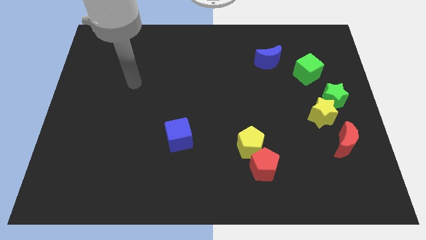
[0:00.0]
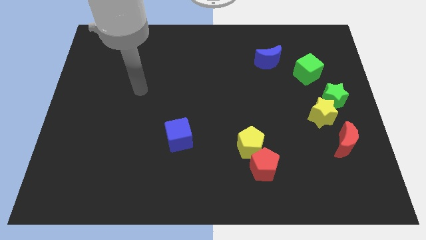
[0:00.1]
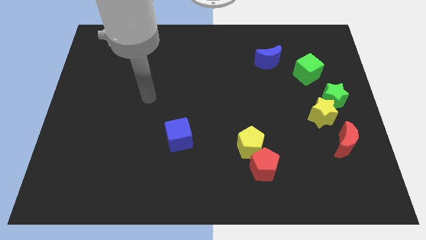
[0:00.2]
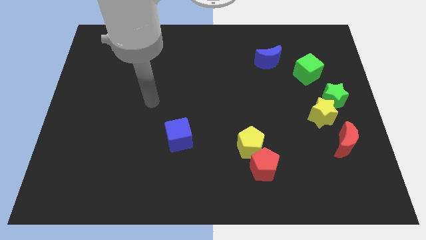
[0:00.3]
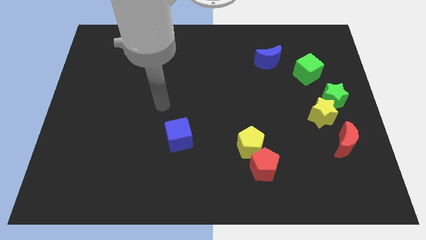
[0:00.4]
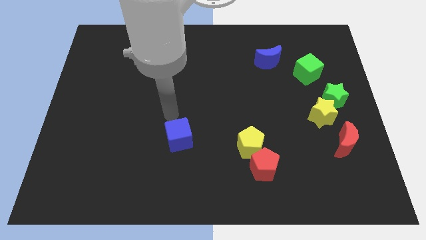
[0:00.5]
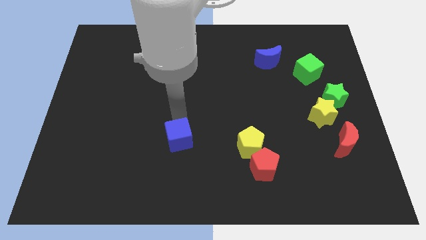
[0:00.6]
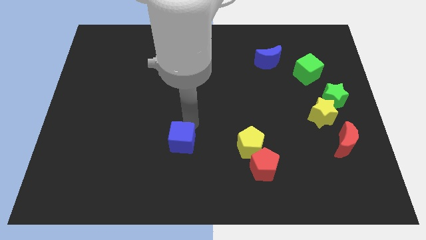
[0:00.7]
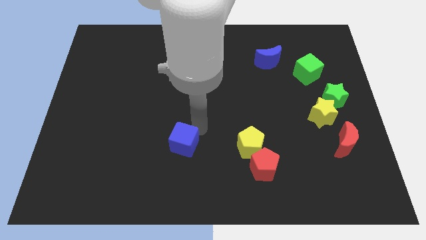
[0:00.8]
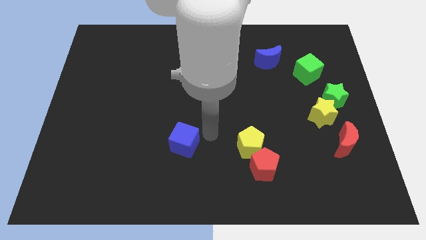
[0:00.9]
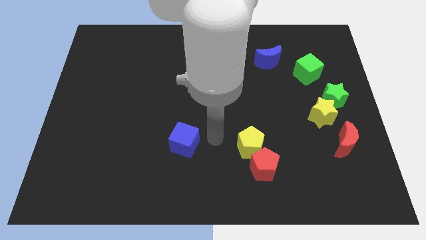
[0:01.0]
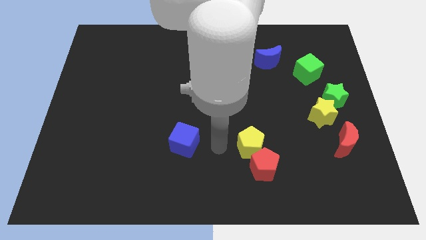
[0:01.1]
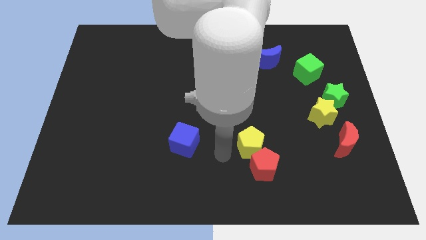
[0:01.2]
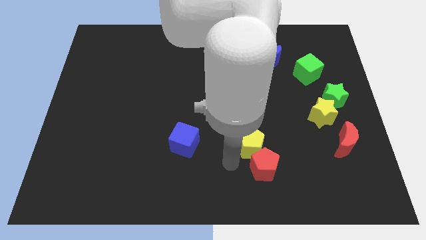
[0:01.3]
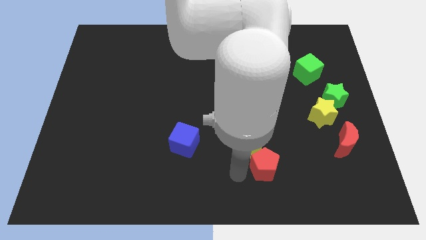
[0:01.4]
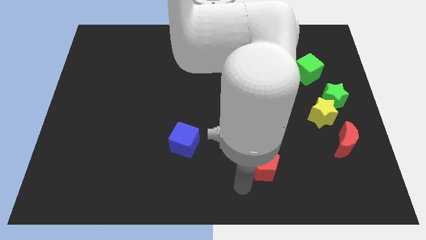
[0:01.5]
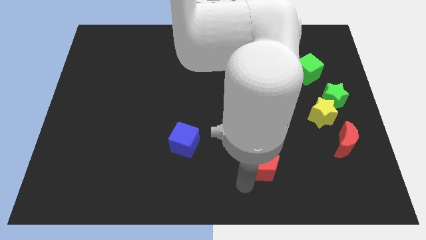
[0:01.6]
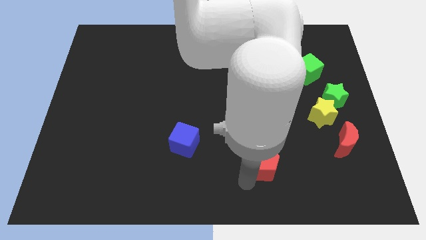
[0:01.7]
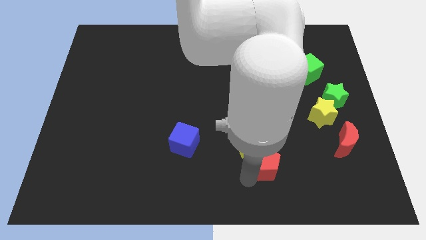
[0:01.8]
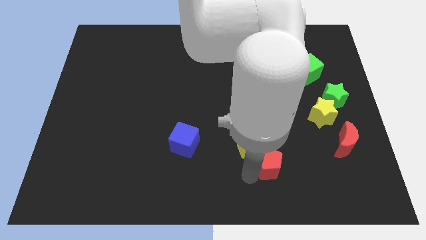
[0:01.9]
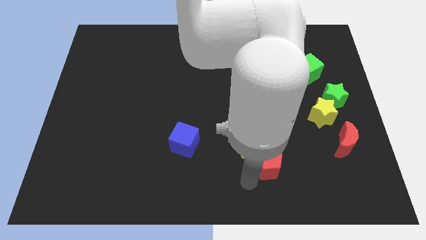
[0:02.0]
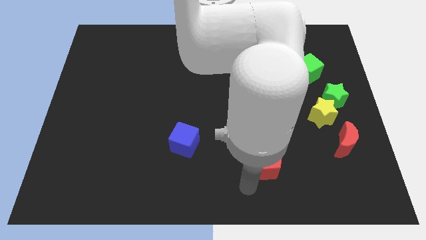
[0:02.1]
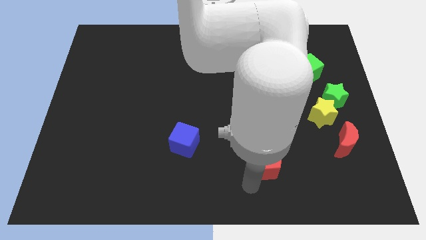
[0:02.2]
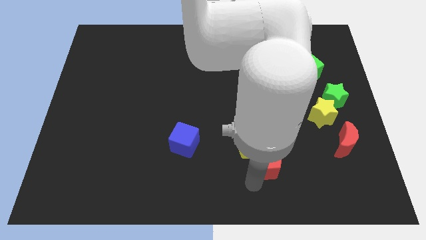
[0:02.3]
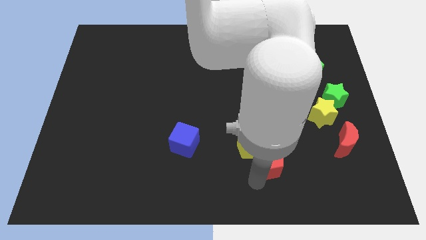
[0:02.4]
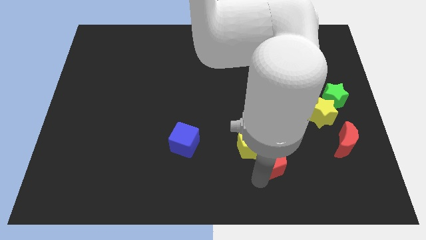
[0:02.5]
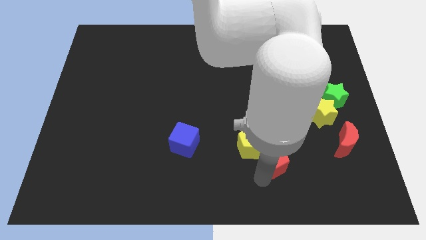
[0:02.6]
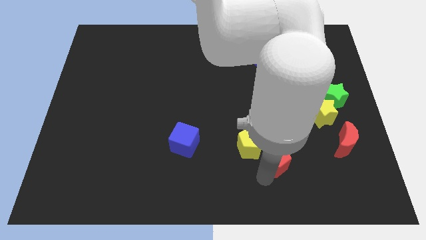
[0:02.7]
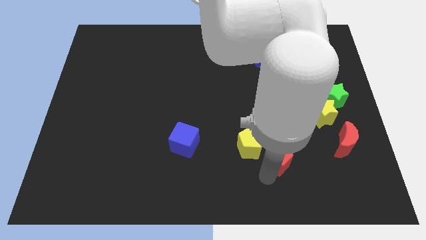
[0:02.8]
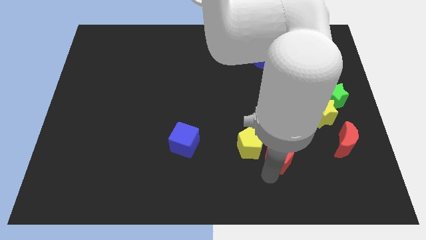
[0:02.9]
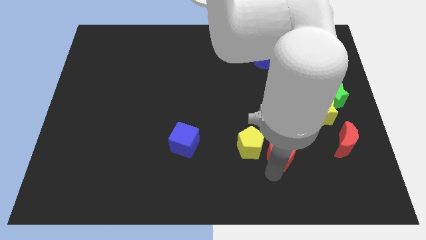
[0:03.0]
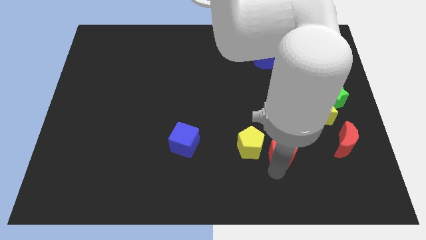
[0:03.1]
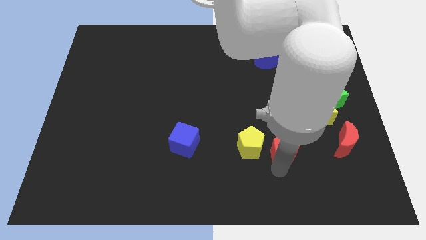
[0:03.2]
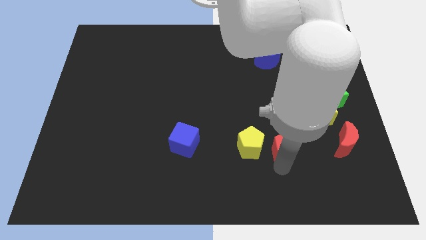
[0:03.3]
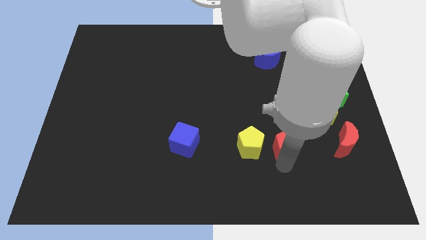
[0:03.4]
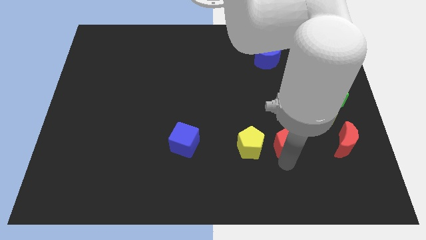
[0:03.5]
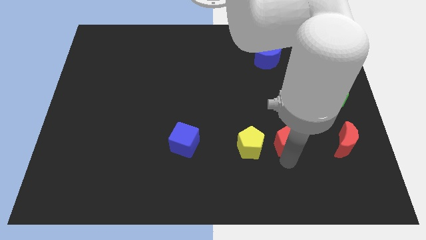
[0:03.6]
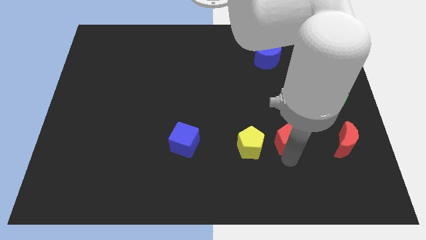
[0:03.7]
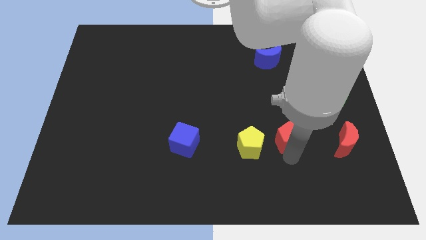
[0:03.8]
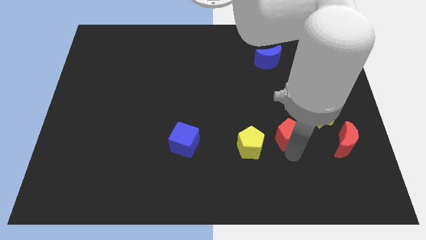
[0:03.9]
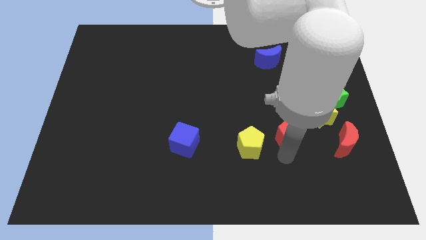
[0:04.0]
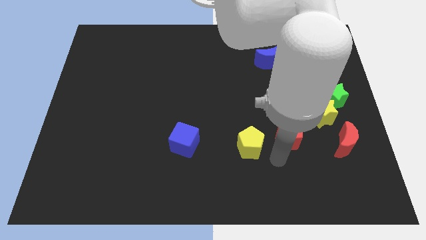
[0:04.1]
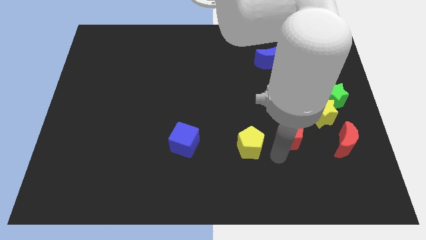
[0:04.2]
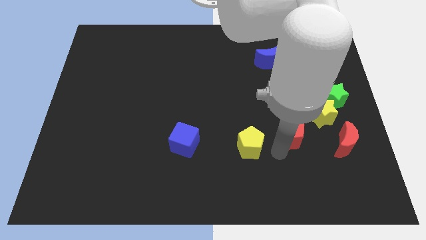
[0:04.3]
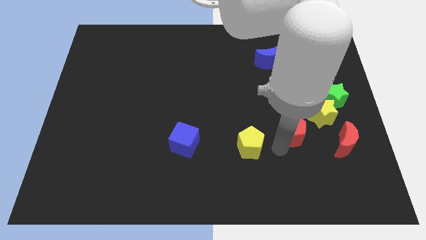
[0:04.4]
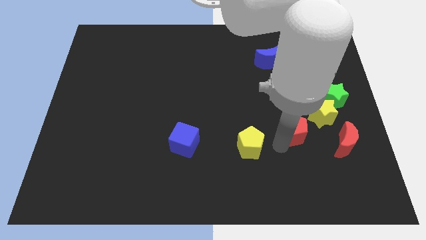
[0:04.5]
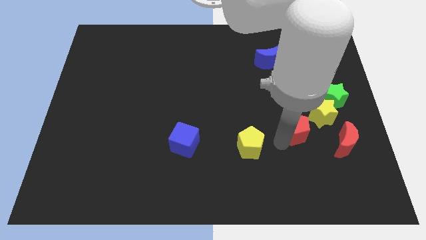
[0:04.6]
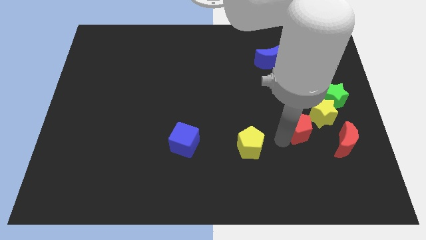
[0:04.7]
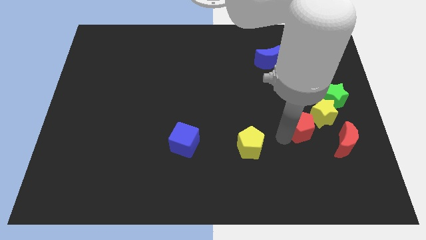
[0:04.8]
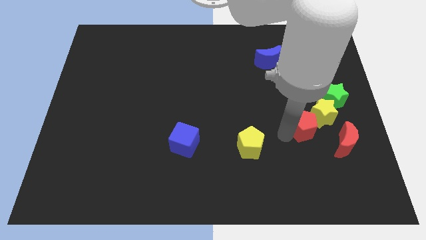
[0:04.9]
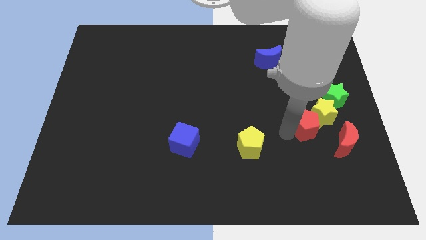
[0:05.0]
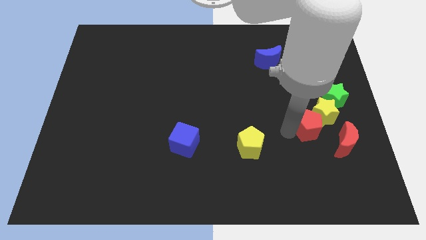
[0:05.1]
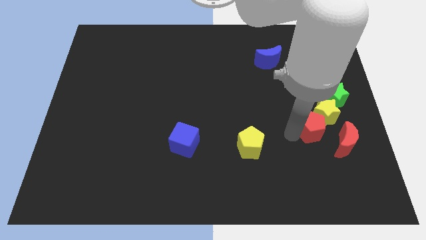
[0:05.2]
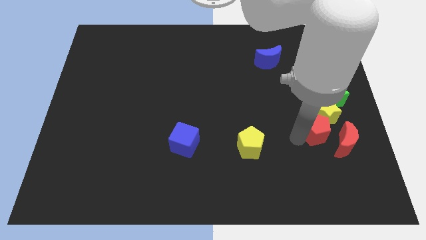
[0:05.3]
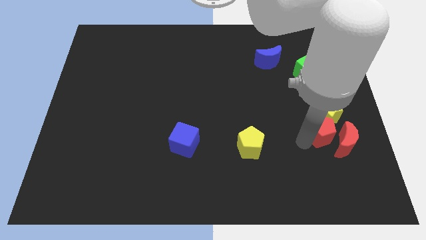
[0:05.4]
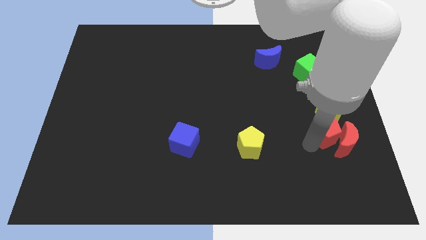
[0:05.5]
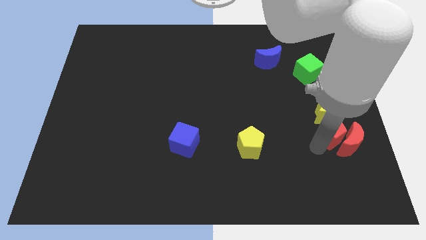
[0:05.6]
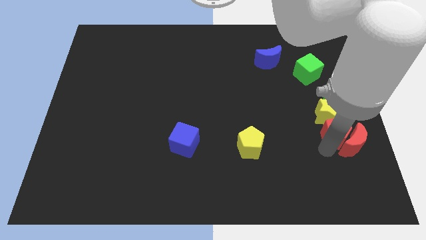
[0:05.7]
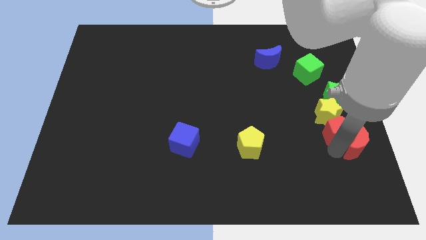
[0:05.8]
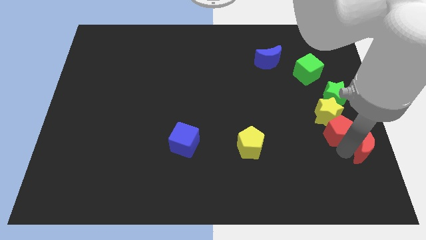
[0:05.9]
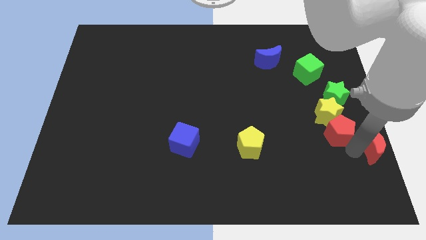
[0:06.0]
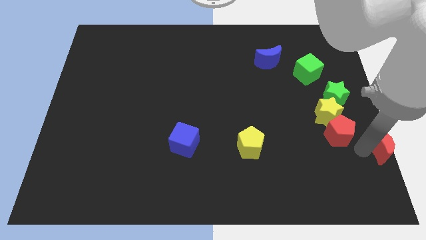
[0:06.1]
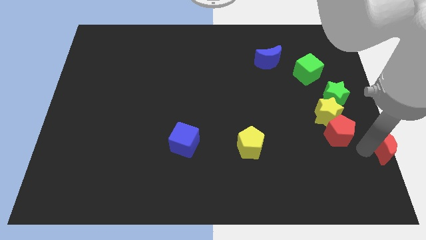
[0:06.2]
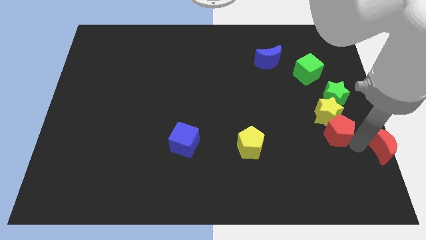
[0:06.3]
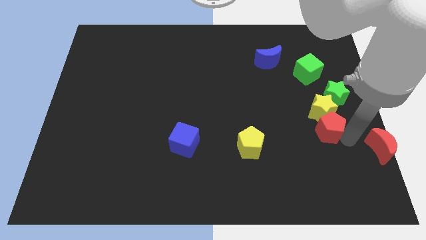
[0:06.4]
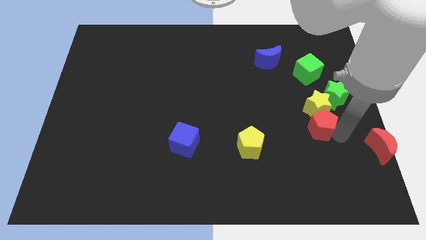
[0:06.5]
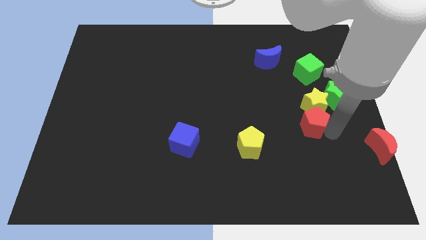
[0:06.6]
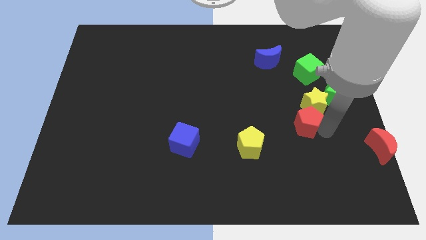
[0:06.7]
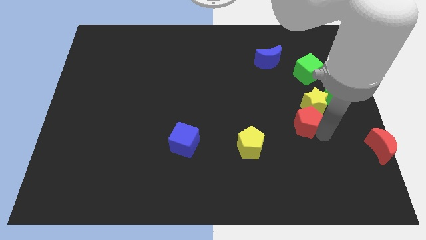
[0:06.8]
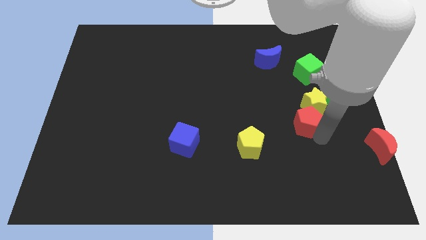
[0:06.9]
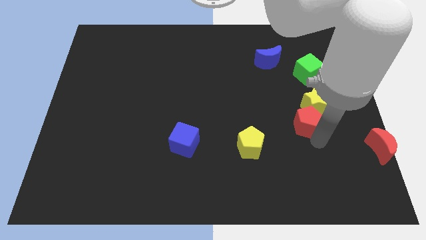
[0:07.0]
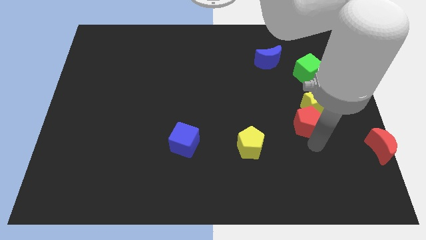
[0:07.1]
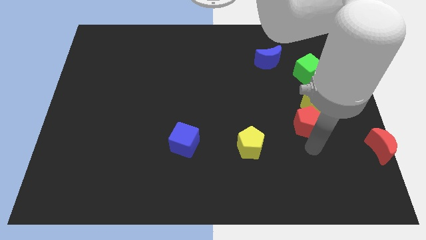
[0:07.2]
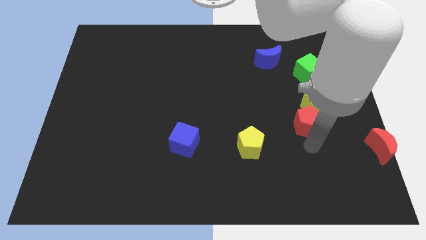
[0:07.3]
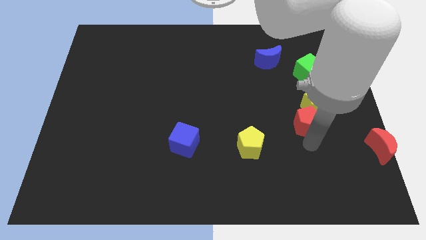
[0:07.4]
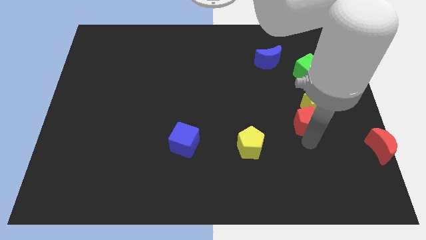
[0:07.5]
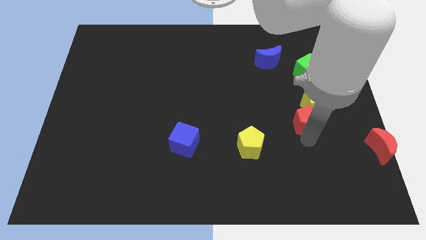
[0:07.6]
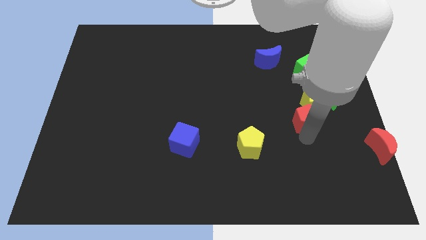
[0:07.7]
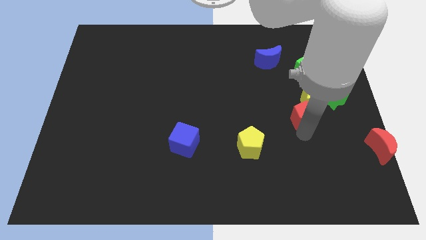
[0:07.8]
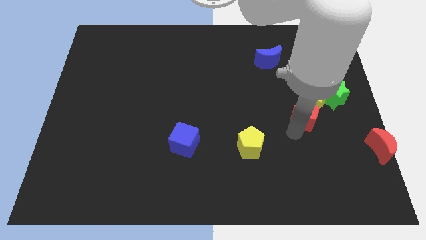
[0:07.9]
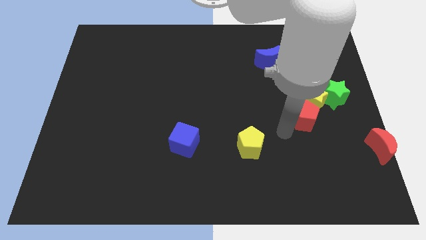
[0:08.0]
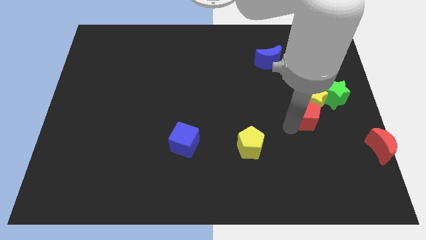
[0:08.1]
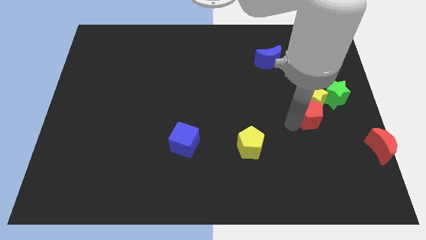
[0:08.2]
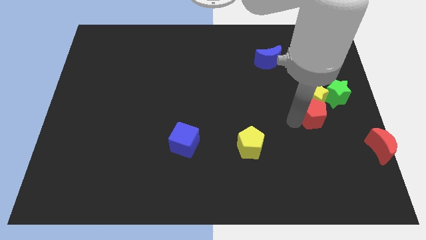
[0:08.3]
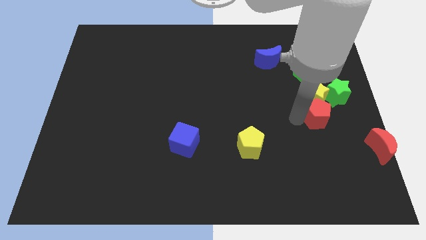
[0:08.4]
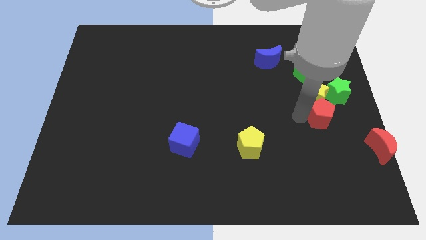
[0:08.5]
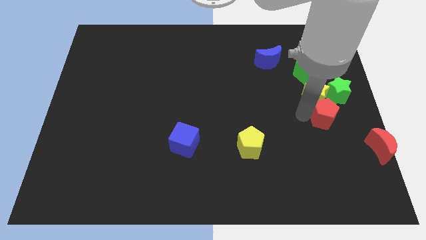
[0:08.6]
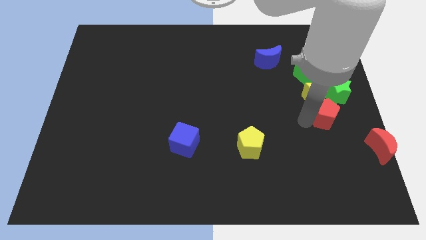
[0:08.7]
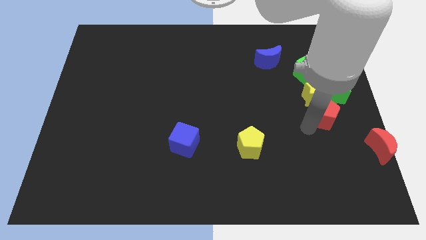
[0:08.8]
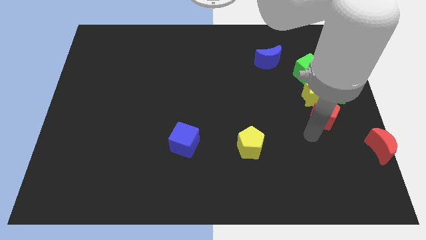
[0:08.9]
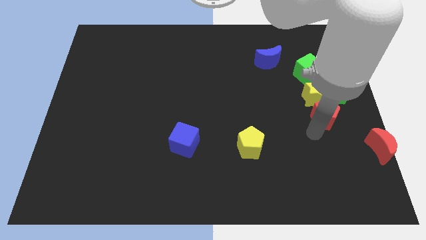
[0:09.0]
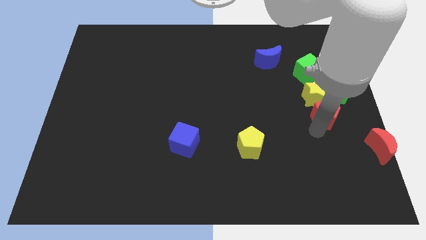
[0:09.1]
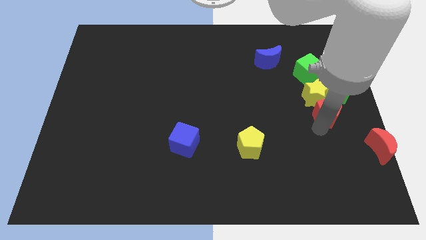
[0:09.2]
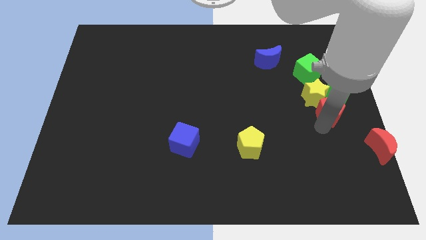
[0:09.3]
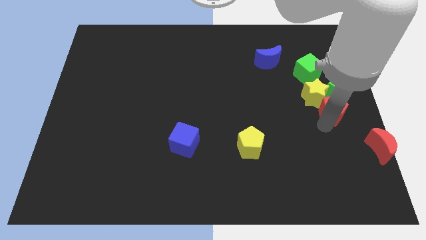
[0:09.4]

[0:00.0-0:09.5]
push the red pentagon to the green star
